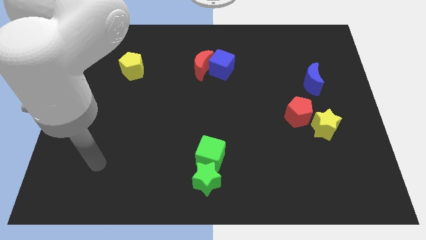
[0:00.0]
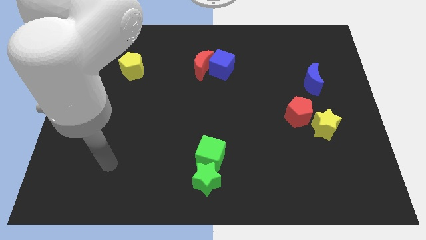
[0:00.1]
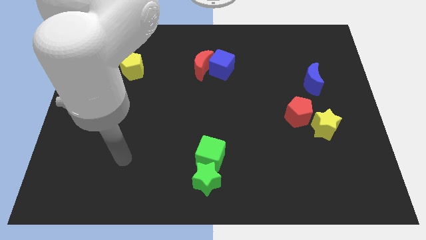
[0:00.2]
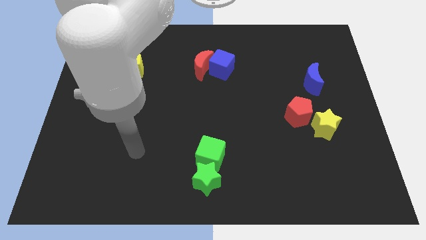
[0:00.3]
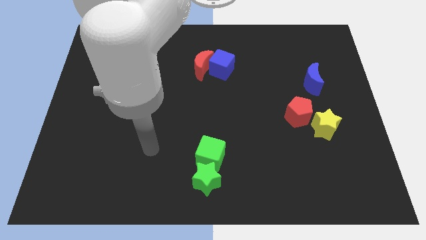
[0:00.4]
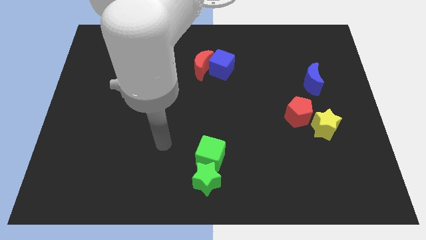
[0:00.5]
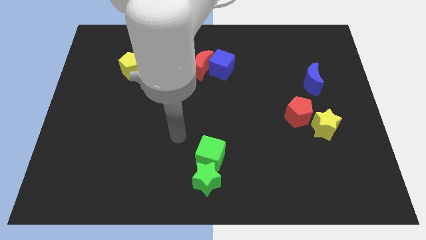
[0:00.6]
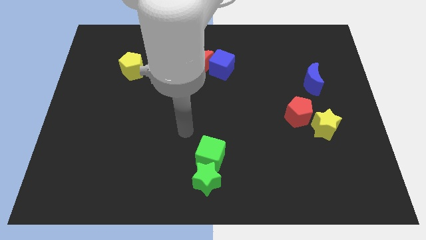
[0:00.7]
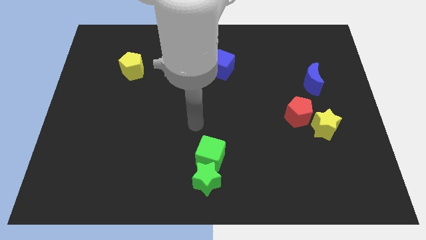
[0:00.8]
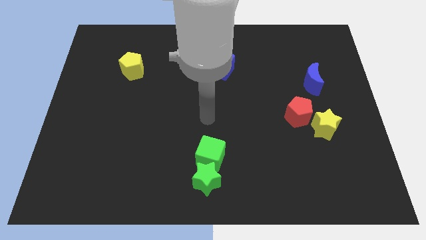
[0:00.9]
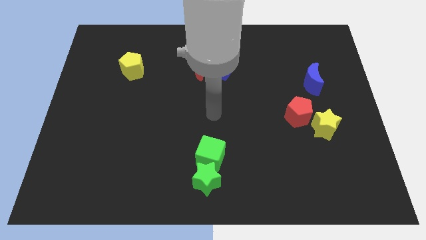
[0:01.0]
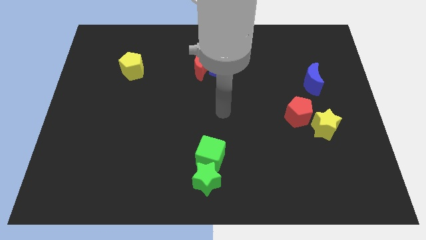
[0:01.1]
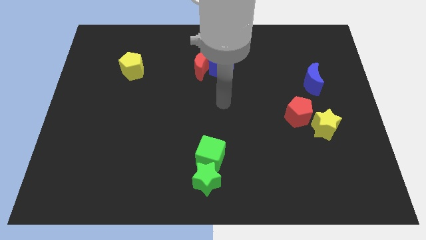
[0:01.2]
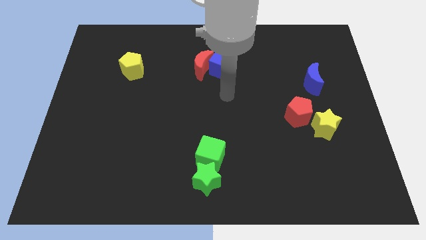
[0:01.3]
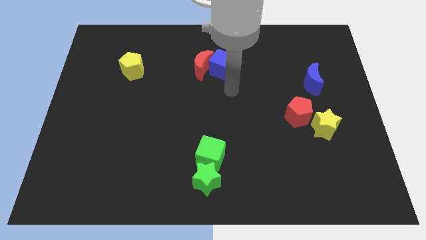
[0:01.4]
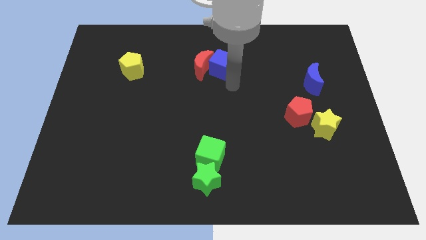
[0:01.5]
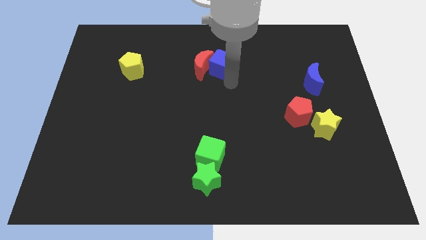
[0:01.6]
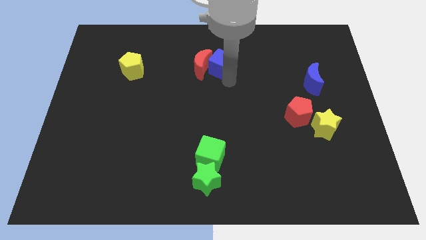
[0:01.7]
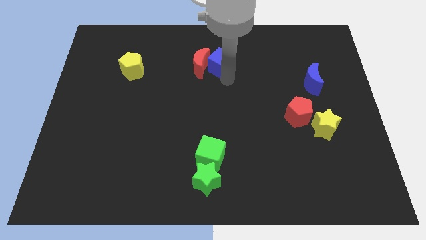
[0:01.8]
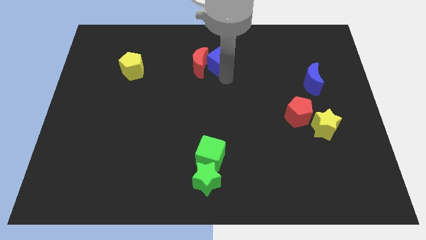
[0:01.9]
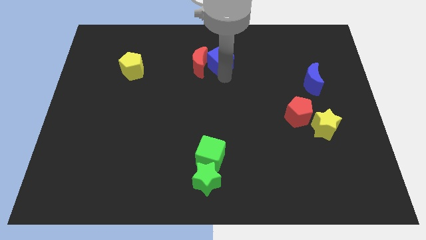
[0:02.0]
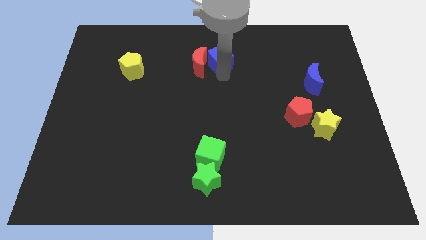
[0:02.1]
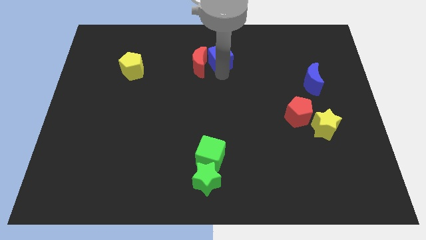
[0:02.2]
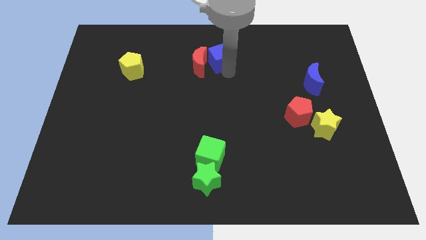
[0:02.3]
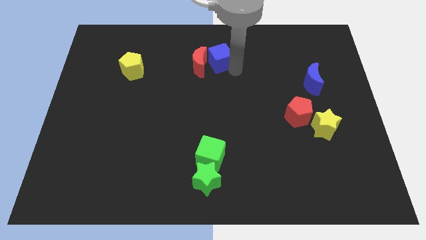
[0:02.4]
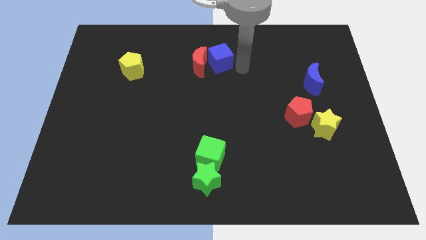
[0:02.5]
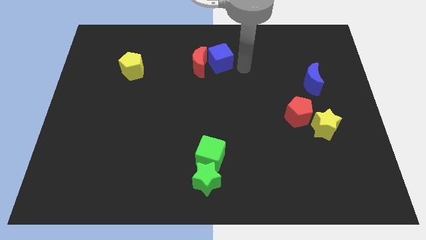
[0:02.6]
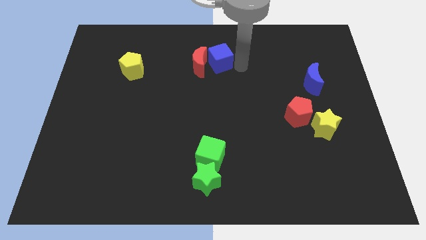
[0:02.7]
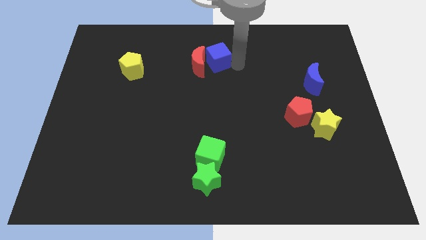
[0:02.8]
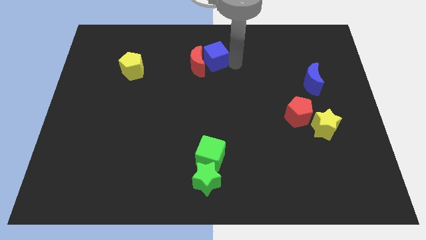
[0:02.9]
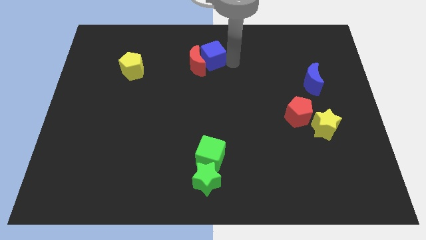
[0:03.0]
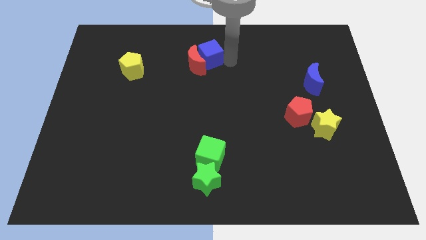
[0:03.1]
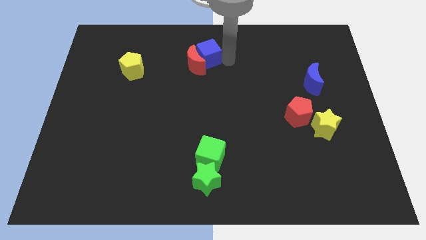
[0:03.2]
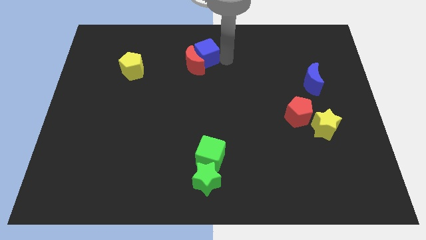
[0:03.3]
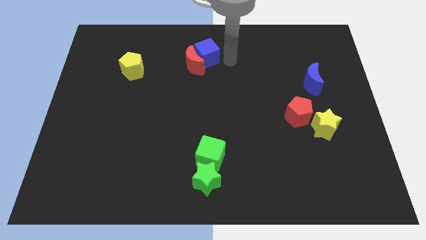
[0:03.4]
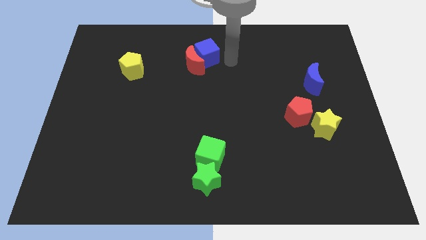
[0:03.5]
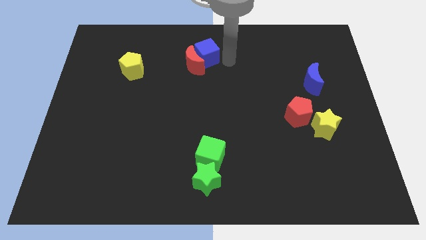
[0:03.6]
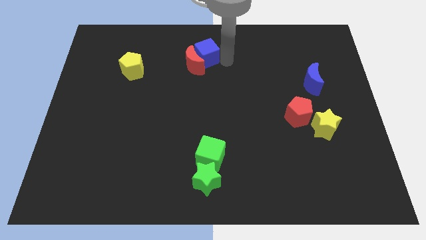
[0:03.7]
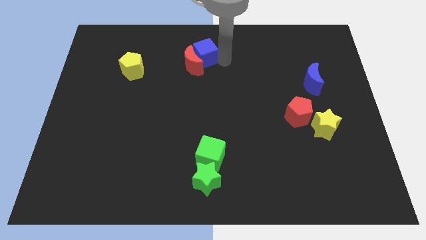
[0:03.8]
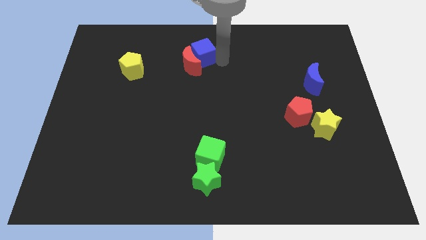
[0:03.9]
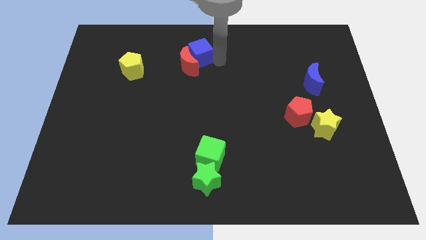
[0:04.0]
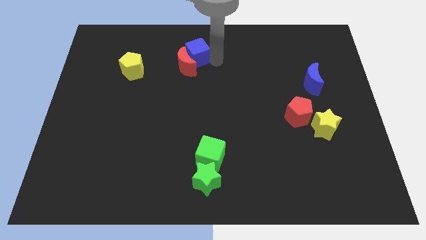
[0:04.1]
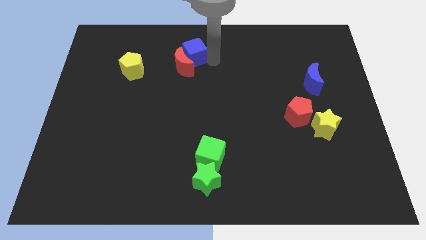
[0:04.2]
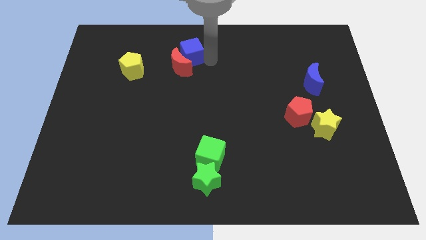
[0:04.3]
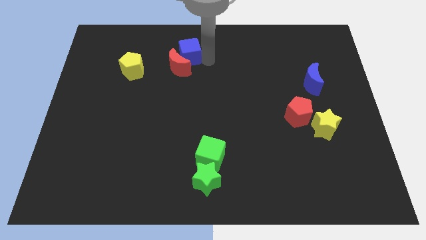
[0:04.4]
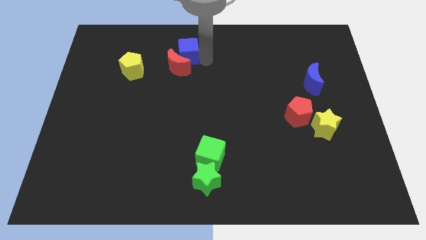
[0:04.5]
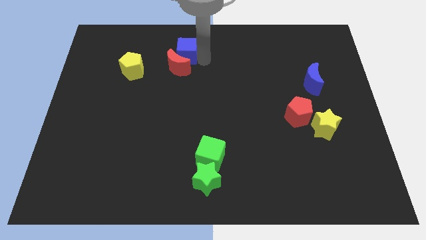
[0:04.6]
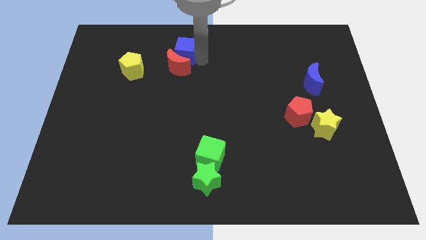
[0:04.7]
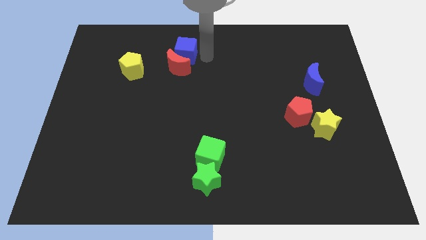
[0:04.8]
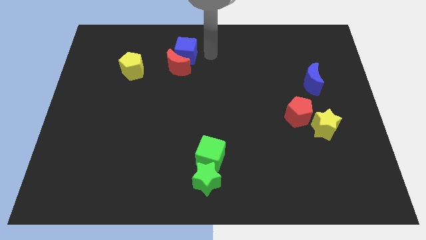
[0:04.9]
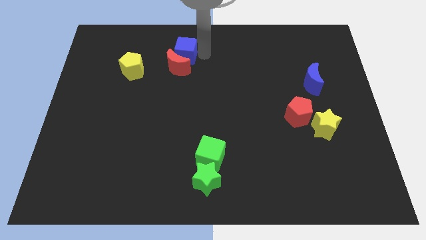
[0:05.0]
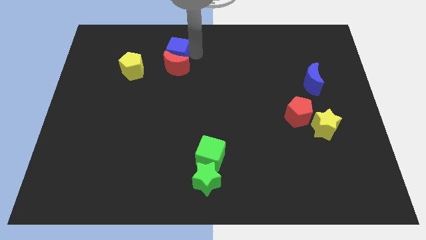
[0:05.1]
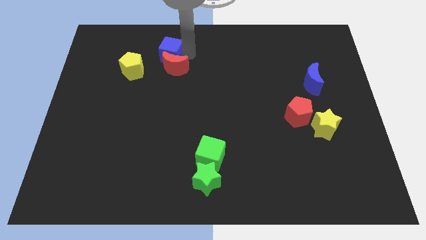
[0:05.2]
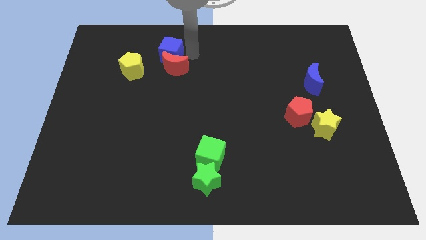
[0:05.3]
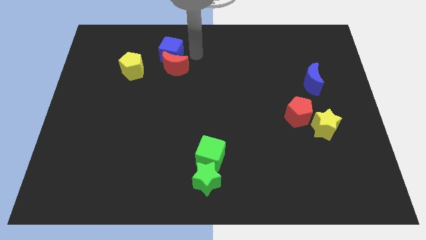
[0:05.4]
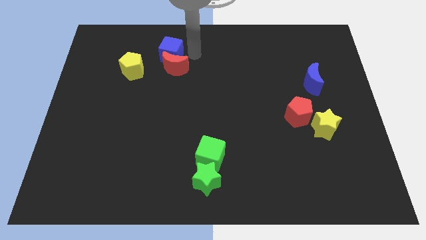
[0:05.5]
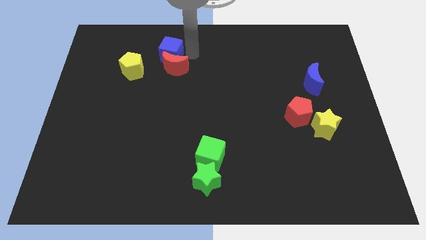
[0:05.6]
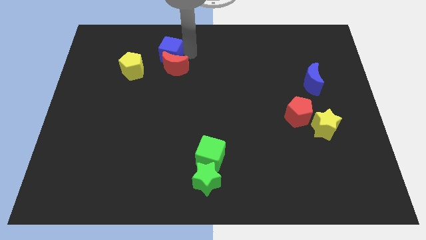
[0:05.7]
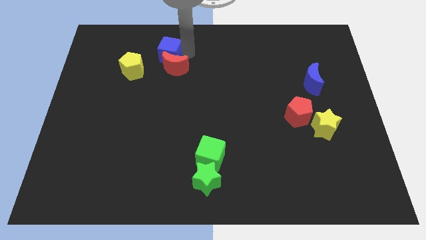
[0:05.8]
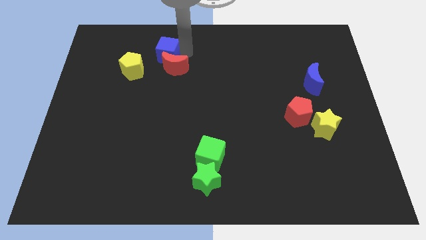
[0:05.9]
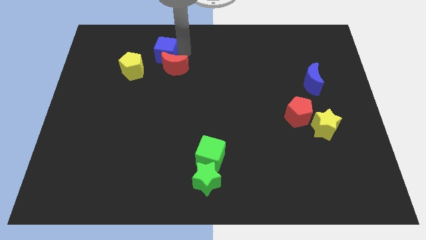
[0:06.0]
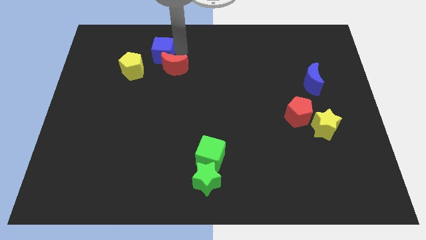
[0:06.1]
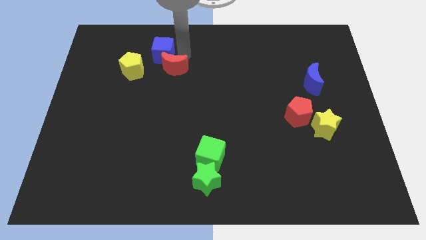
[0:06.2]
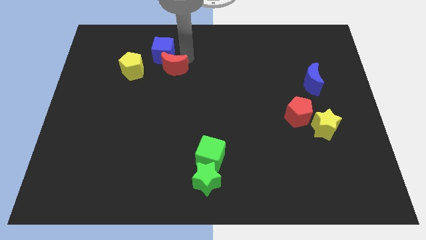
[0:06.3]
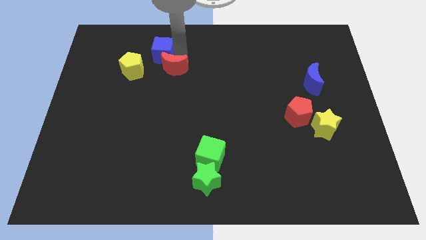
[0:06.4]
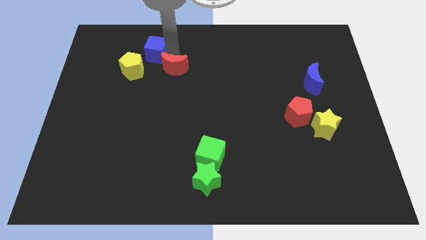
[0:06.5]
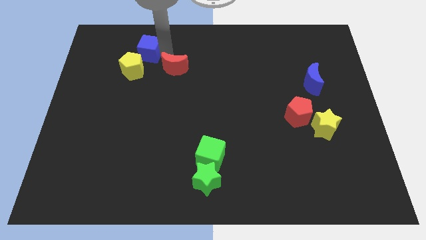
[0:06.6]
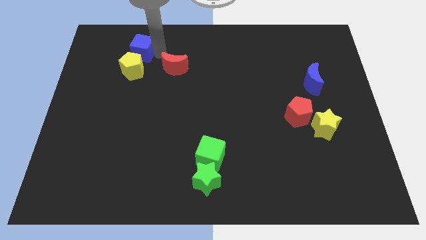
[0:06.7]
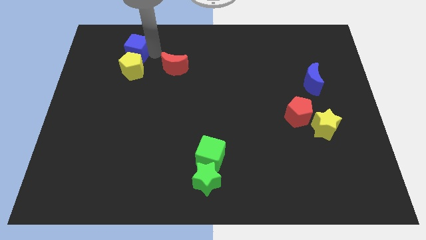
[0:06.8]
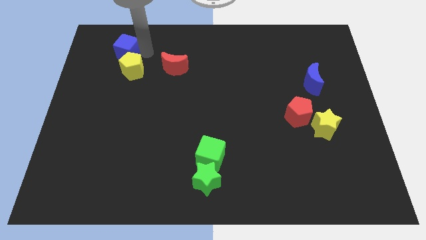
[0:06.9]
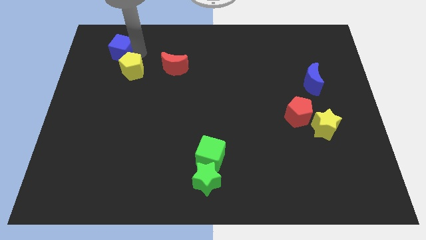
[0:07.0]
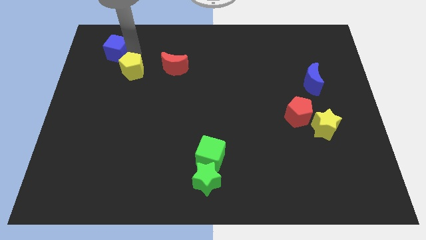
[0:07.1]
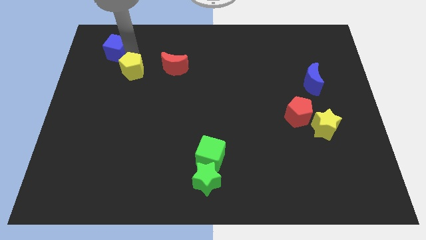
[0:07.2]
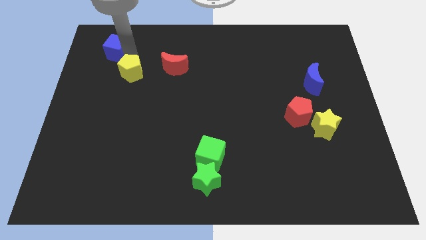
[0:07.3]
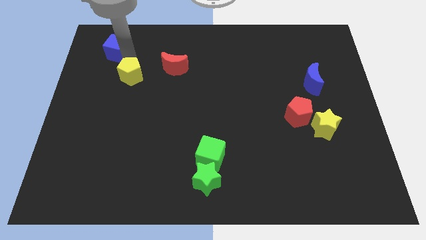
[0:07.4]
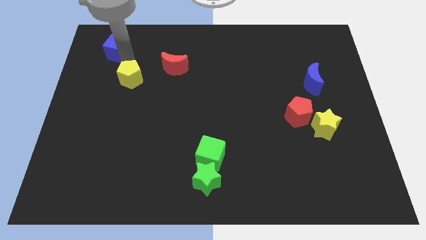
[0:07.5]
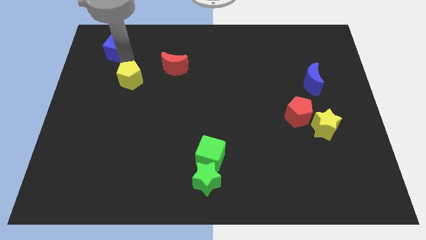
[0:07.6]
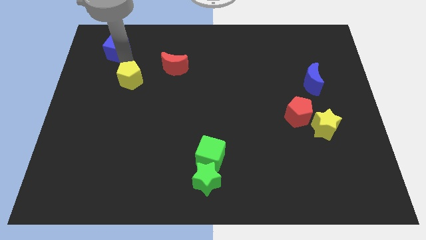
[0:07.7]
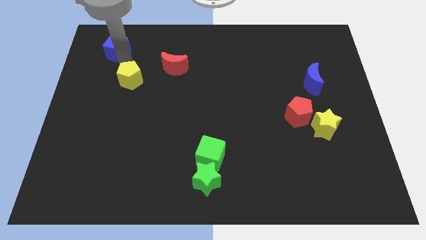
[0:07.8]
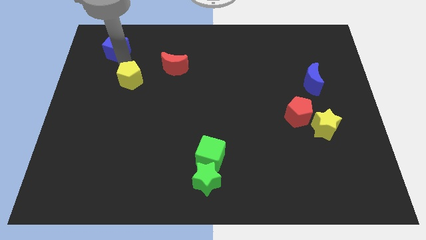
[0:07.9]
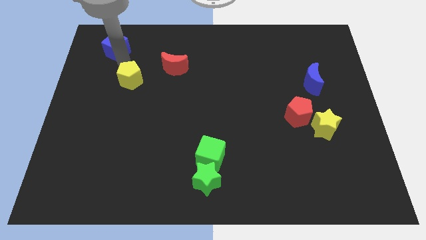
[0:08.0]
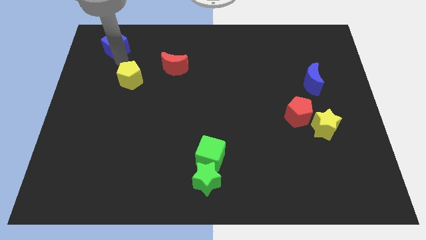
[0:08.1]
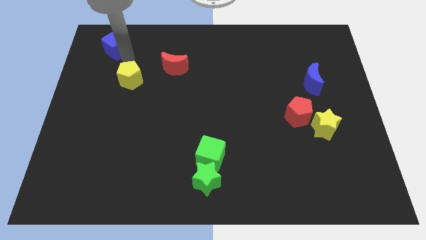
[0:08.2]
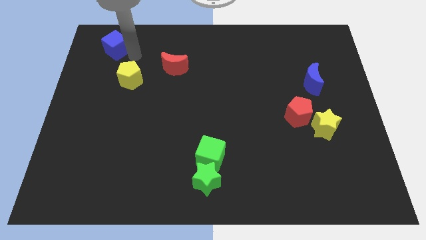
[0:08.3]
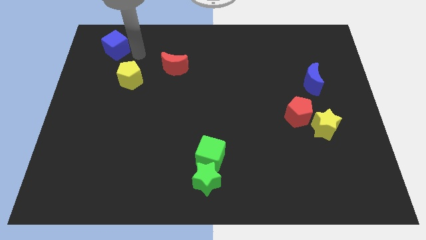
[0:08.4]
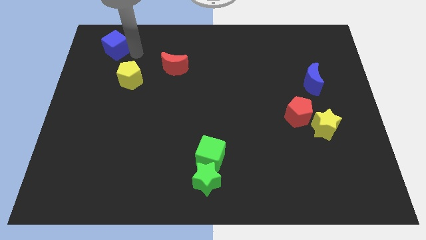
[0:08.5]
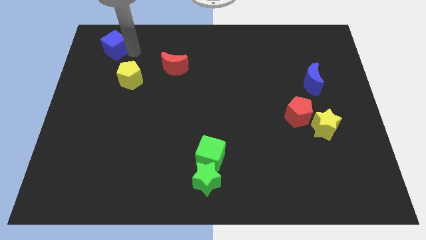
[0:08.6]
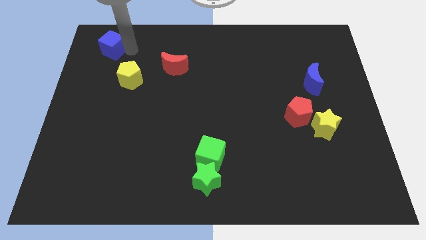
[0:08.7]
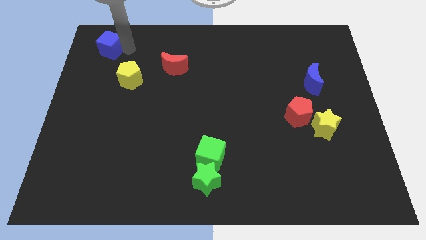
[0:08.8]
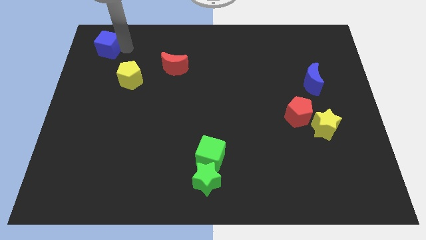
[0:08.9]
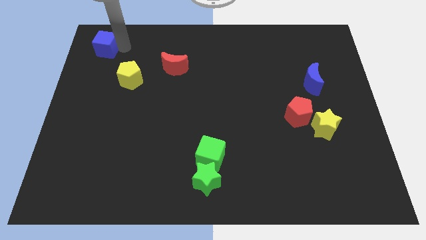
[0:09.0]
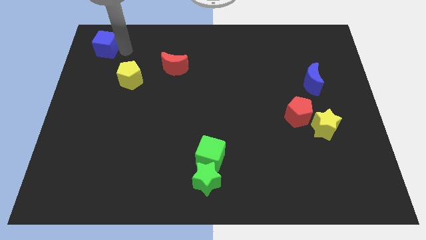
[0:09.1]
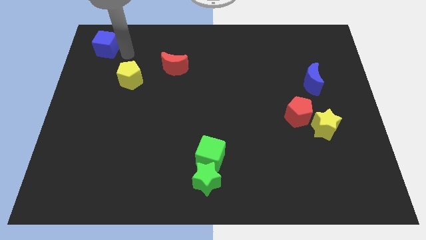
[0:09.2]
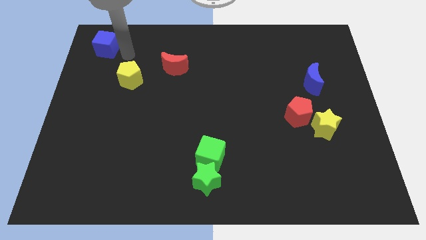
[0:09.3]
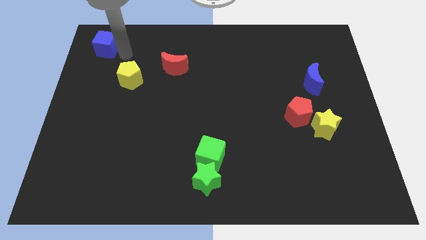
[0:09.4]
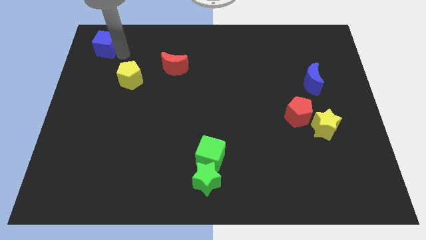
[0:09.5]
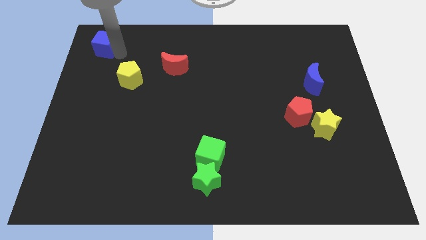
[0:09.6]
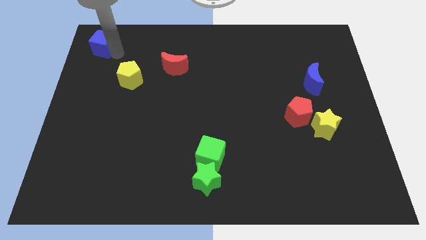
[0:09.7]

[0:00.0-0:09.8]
put the blue cube to the top left of the board
